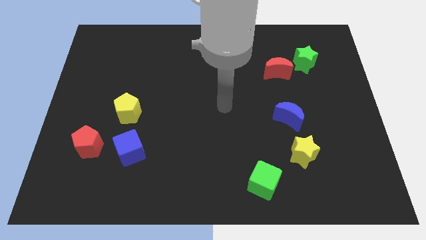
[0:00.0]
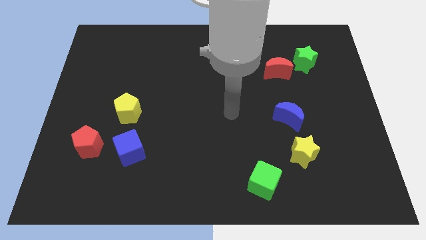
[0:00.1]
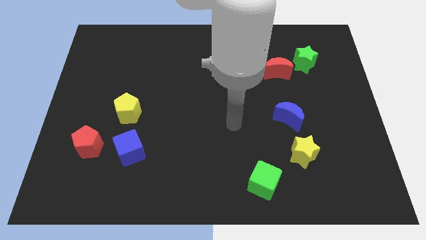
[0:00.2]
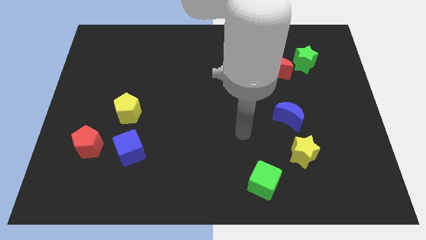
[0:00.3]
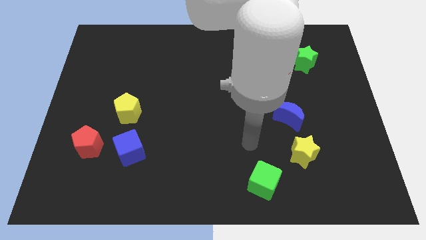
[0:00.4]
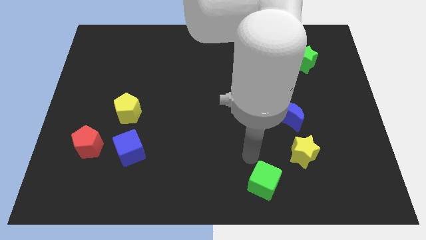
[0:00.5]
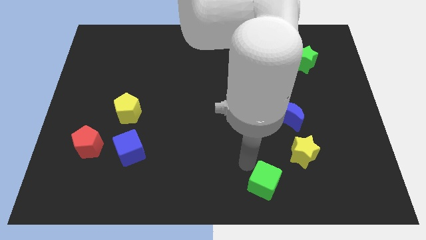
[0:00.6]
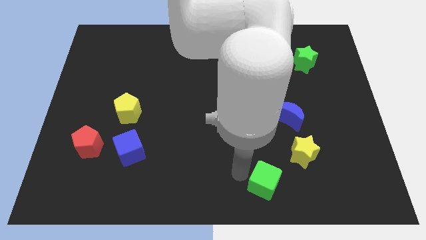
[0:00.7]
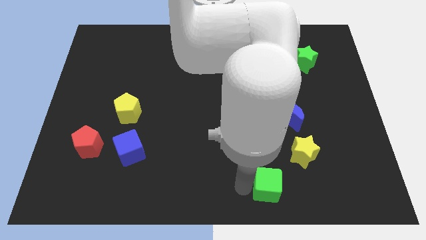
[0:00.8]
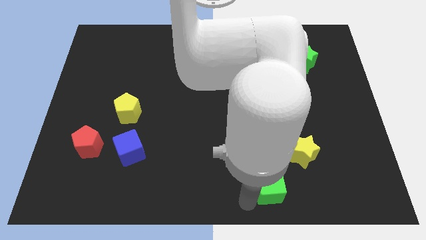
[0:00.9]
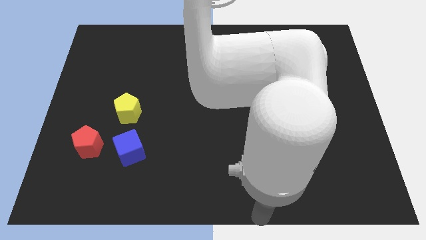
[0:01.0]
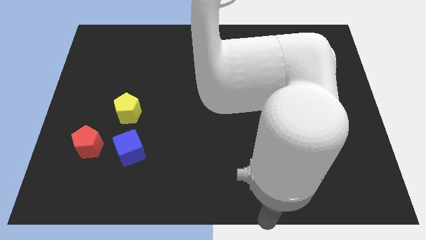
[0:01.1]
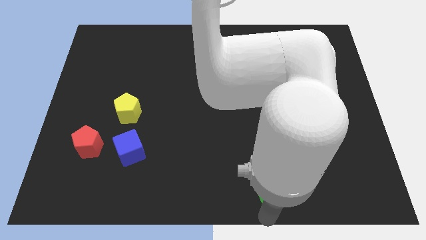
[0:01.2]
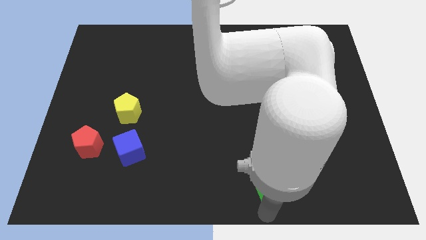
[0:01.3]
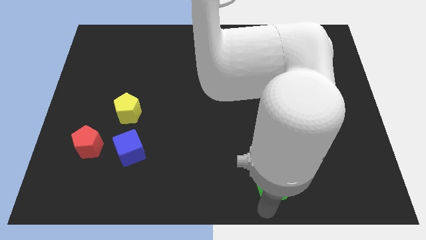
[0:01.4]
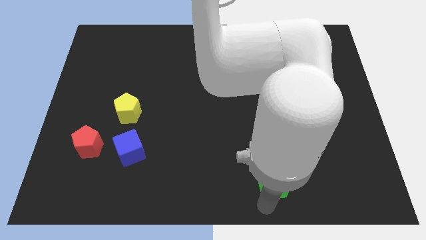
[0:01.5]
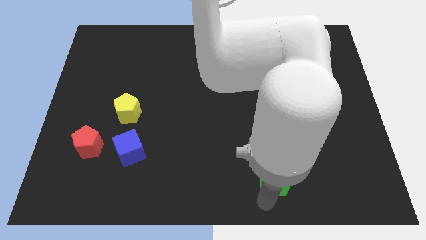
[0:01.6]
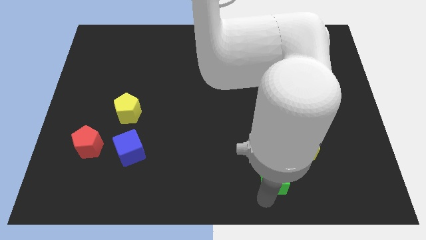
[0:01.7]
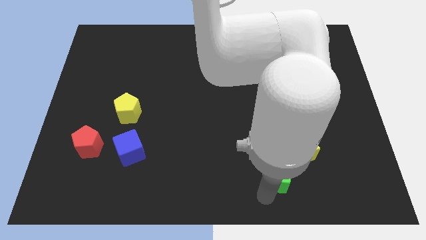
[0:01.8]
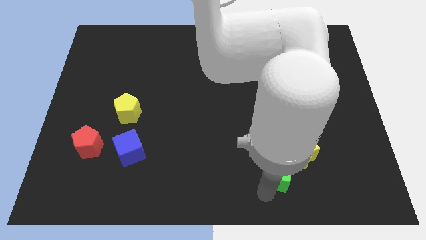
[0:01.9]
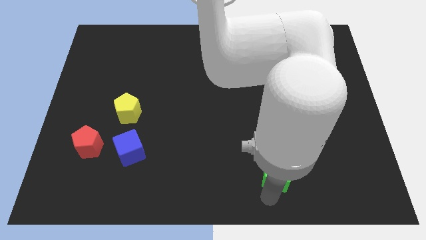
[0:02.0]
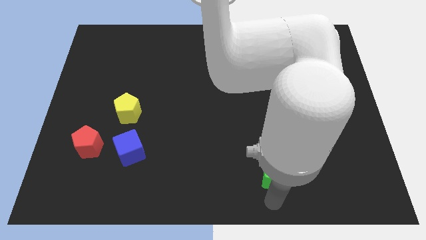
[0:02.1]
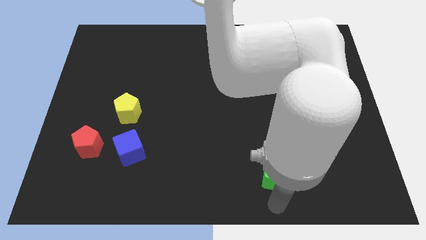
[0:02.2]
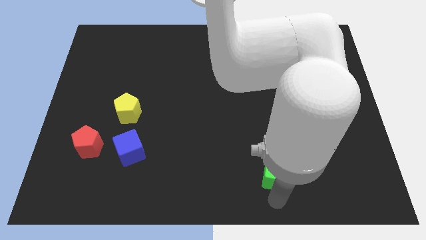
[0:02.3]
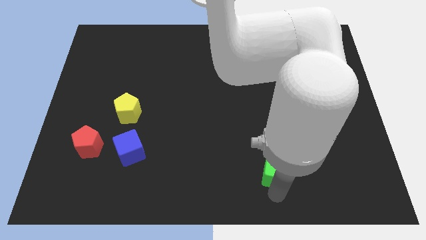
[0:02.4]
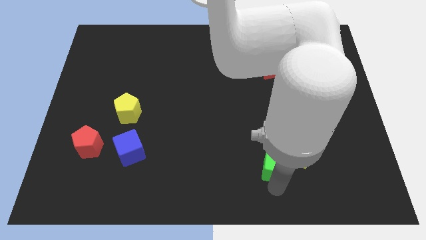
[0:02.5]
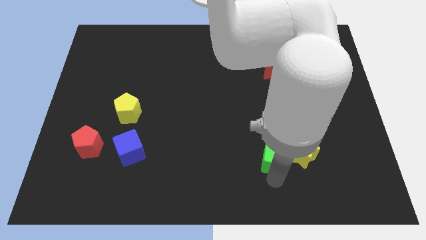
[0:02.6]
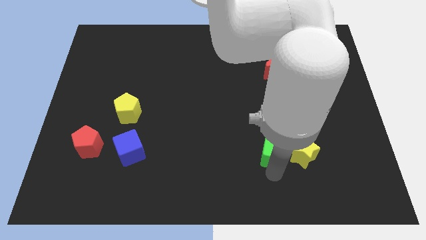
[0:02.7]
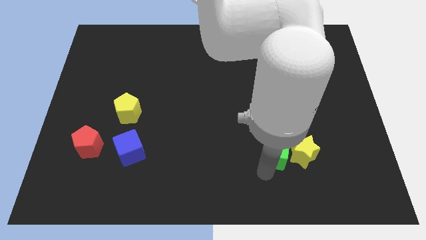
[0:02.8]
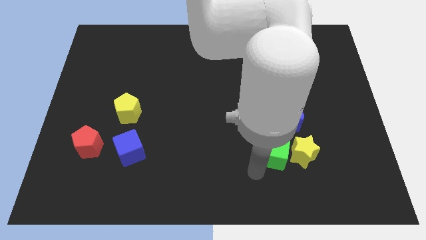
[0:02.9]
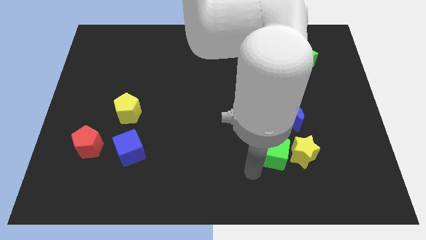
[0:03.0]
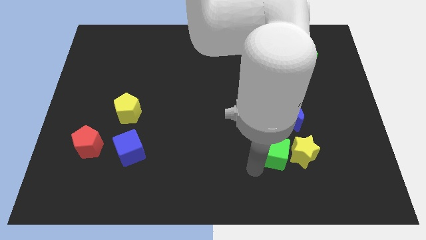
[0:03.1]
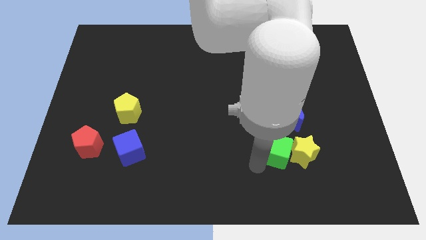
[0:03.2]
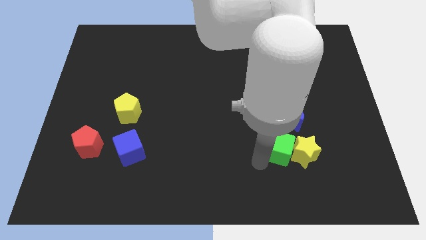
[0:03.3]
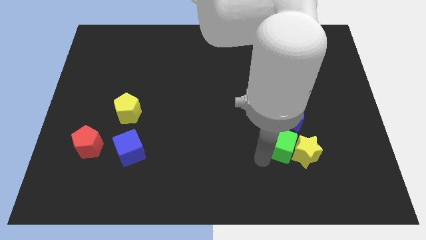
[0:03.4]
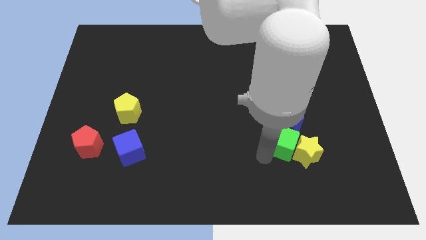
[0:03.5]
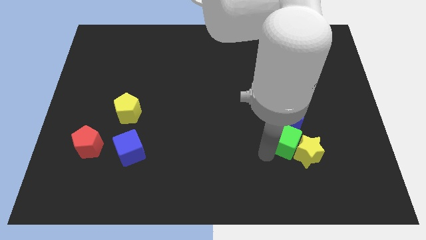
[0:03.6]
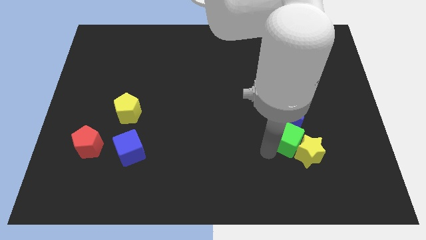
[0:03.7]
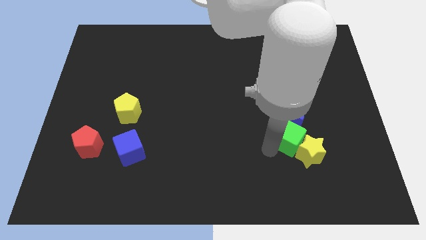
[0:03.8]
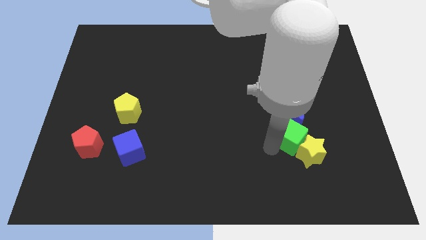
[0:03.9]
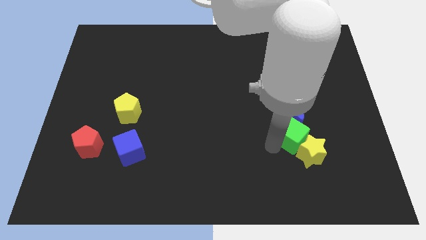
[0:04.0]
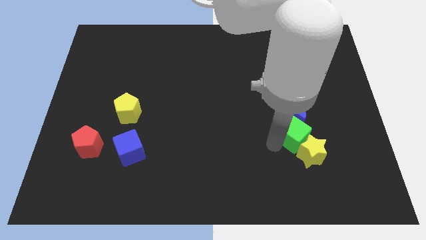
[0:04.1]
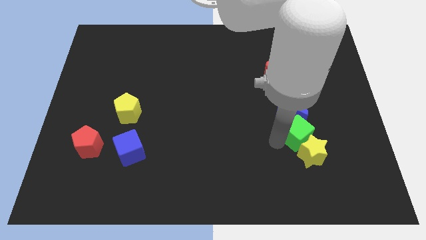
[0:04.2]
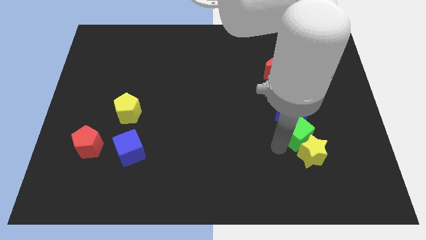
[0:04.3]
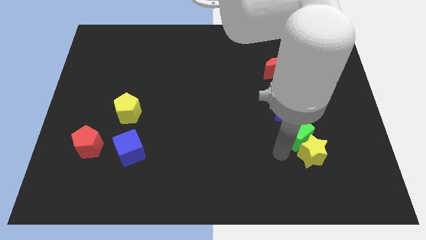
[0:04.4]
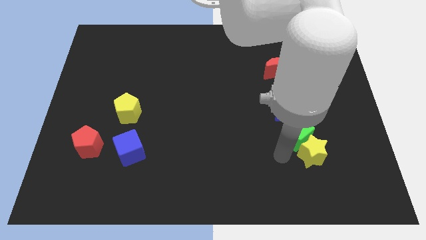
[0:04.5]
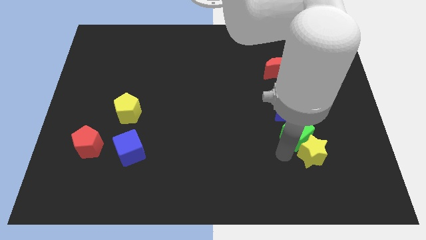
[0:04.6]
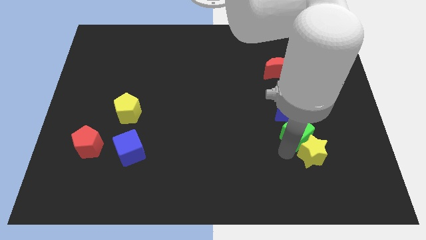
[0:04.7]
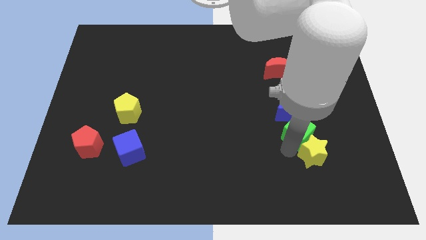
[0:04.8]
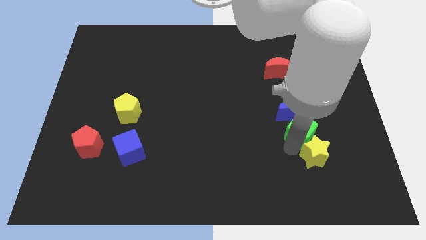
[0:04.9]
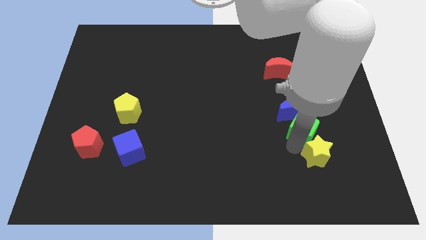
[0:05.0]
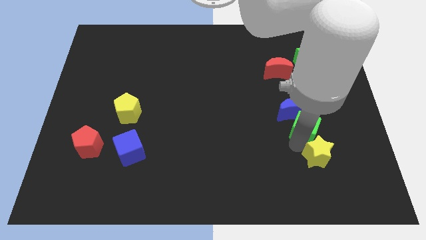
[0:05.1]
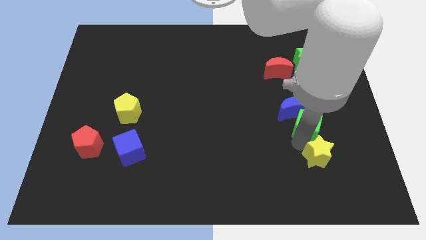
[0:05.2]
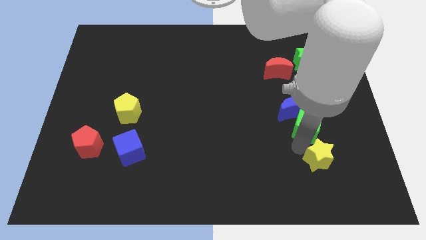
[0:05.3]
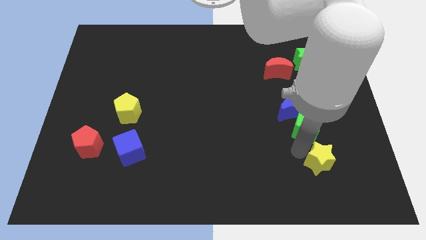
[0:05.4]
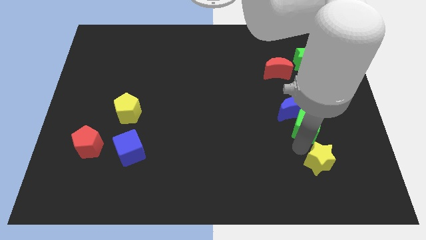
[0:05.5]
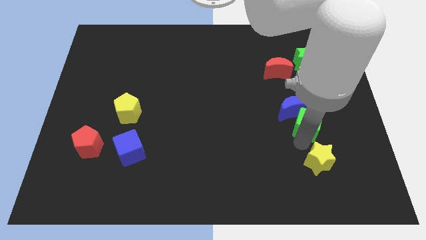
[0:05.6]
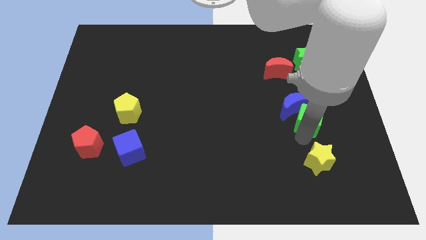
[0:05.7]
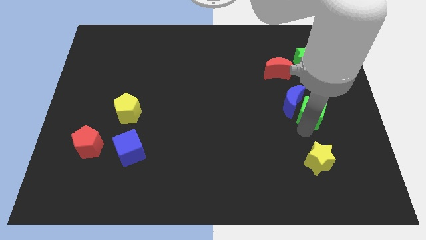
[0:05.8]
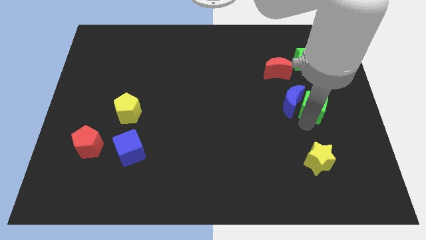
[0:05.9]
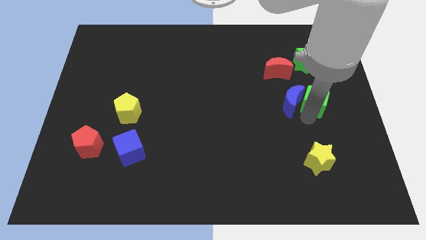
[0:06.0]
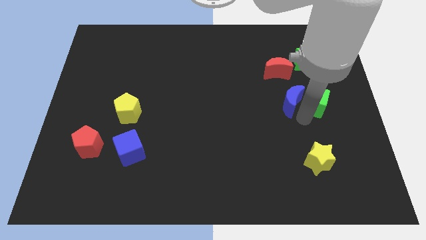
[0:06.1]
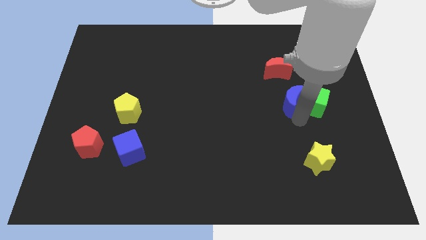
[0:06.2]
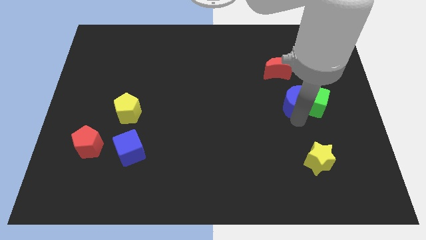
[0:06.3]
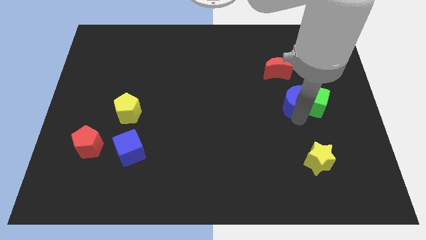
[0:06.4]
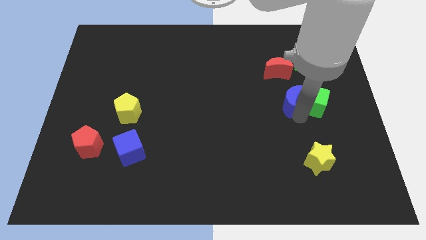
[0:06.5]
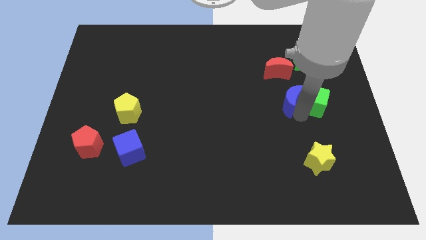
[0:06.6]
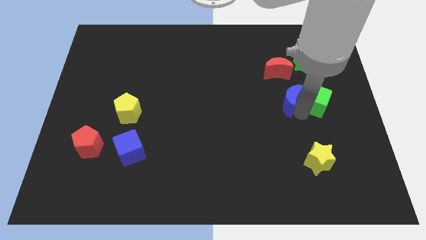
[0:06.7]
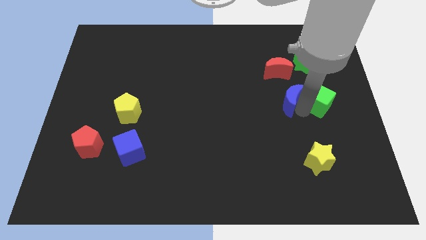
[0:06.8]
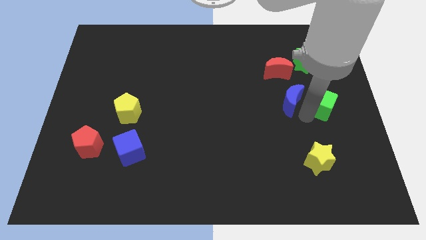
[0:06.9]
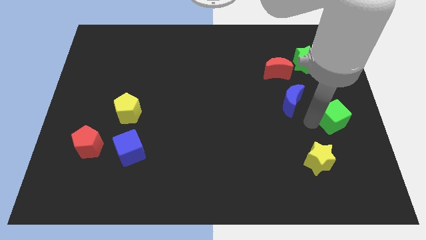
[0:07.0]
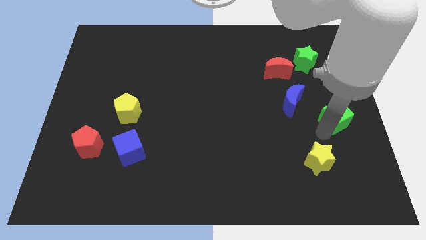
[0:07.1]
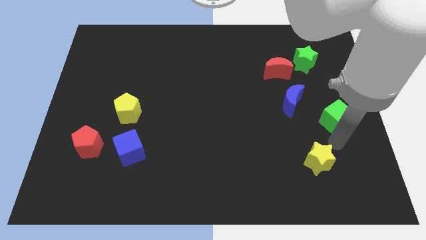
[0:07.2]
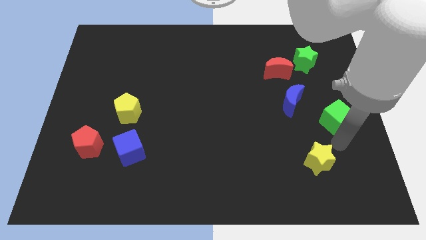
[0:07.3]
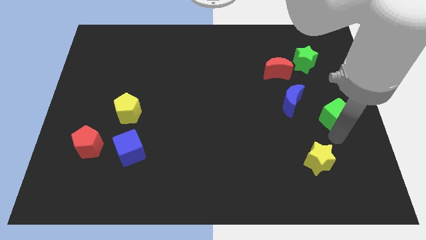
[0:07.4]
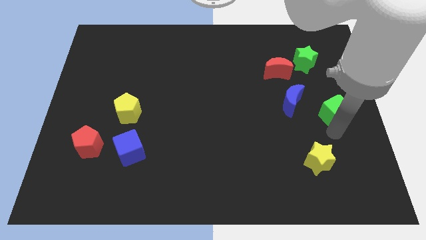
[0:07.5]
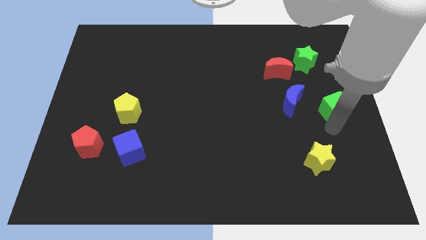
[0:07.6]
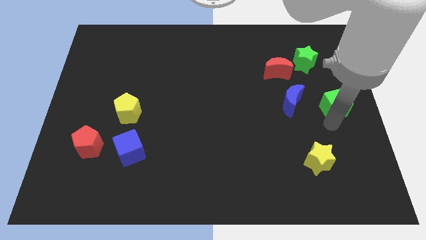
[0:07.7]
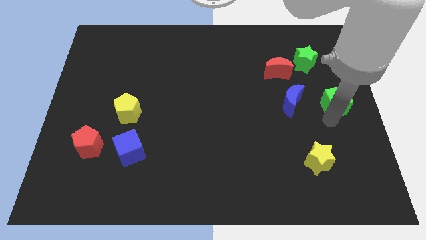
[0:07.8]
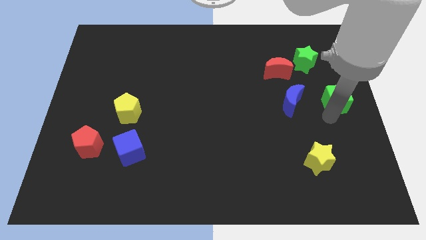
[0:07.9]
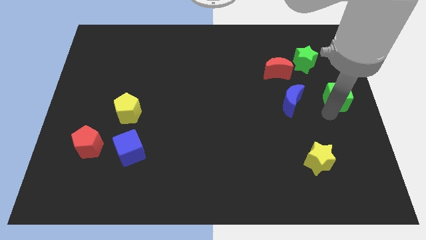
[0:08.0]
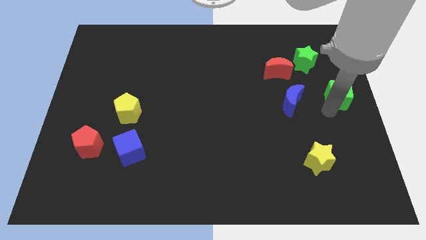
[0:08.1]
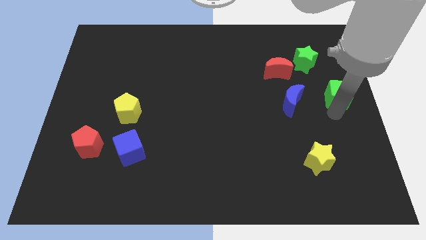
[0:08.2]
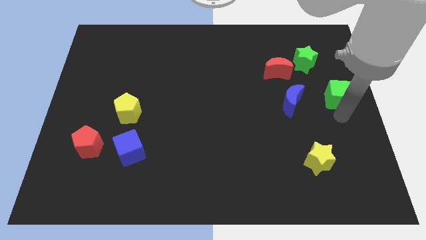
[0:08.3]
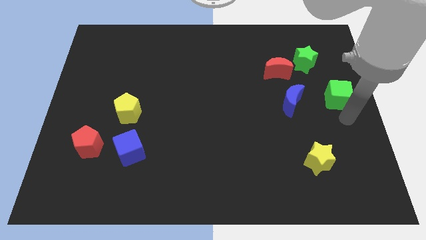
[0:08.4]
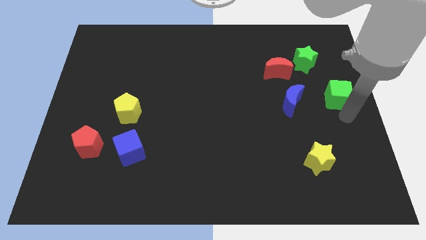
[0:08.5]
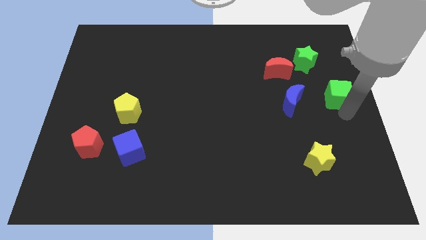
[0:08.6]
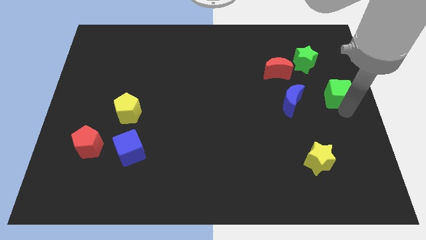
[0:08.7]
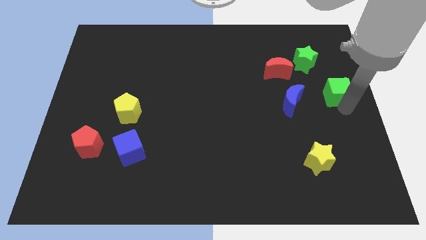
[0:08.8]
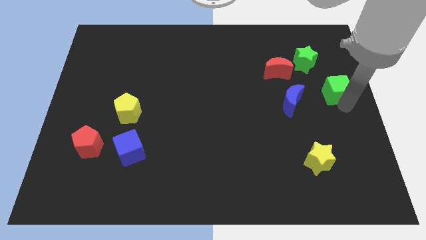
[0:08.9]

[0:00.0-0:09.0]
push the green cube to the bottom right of the green star
